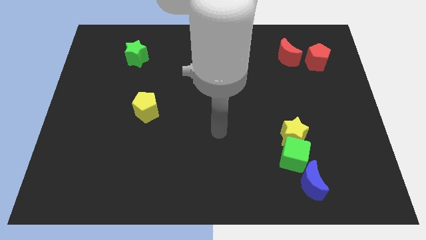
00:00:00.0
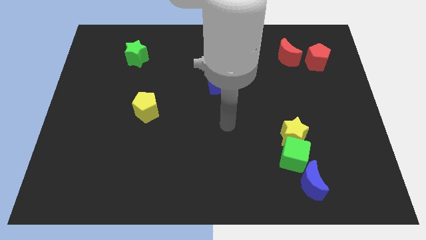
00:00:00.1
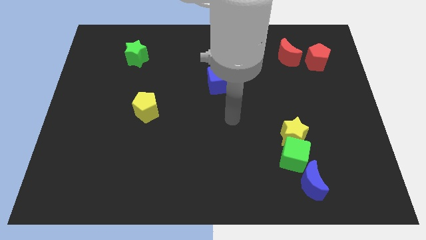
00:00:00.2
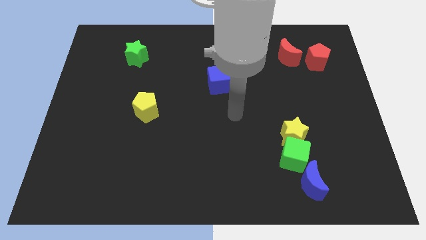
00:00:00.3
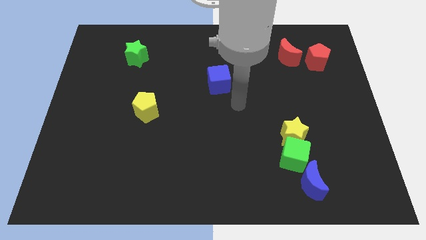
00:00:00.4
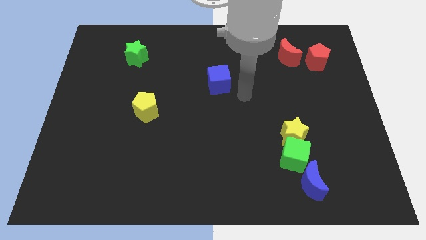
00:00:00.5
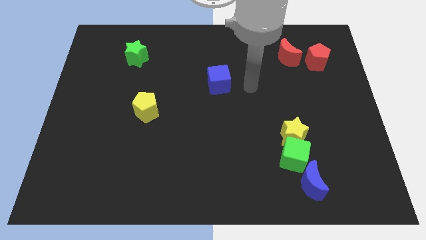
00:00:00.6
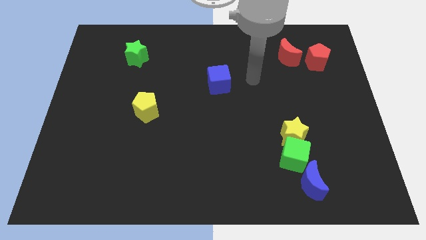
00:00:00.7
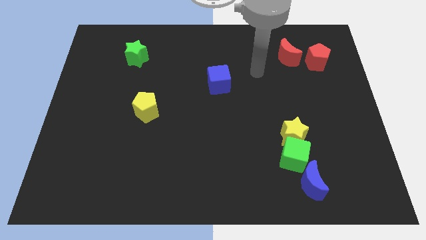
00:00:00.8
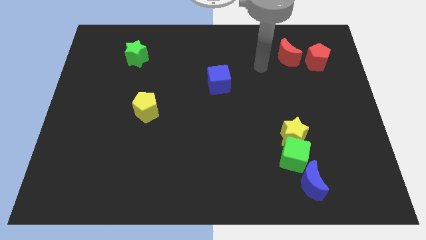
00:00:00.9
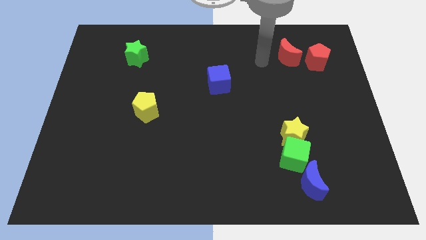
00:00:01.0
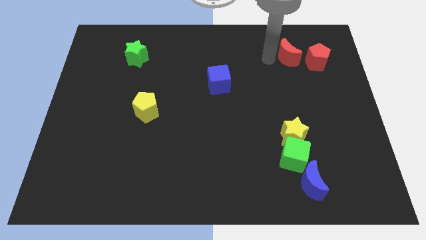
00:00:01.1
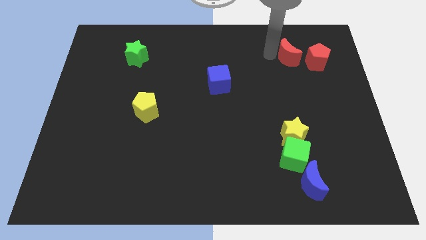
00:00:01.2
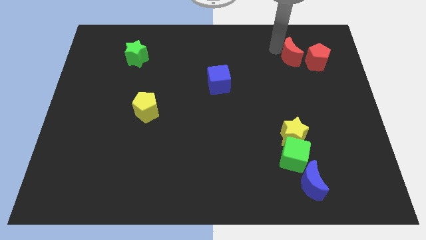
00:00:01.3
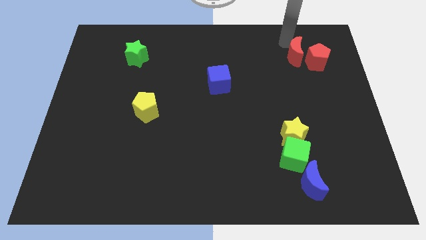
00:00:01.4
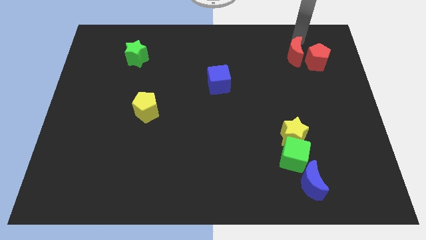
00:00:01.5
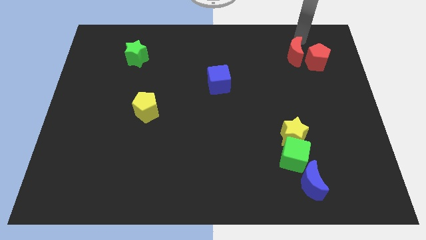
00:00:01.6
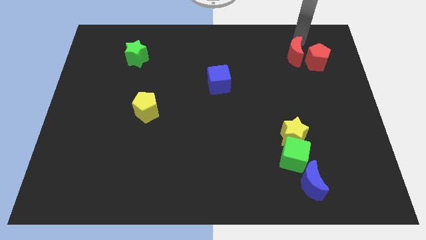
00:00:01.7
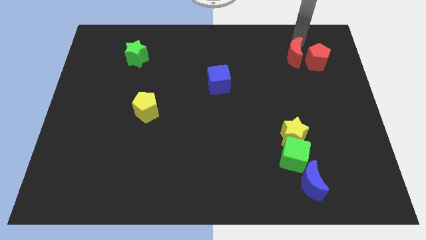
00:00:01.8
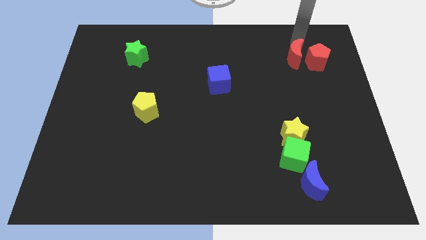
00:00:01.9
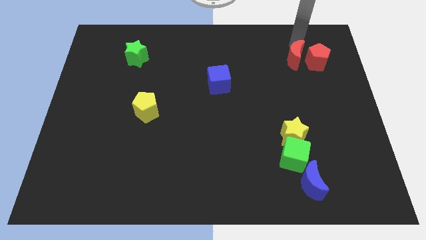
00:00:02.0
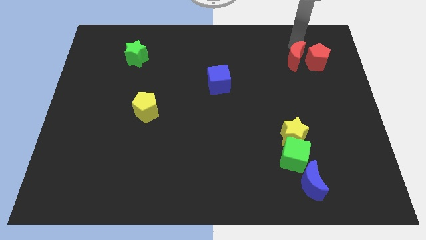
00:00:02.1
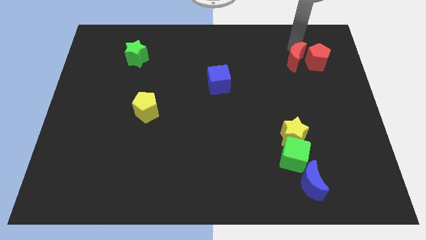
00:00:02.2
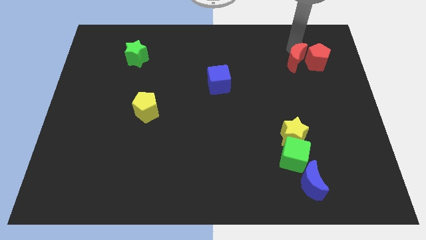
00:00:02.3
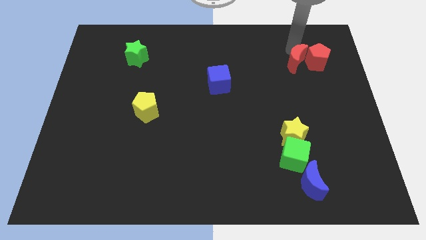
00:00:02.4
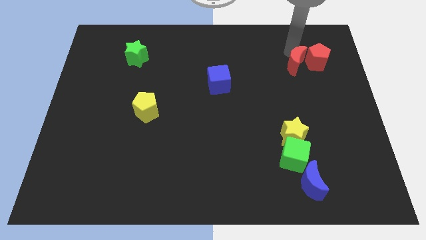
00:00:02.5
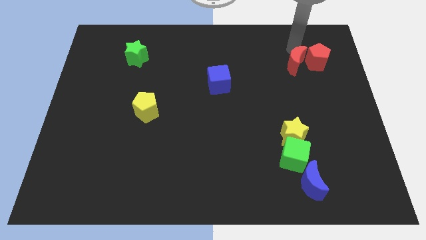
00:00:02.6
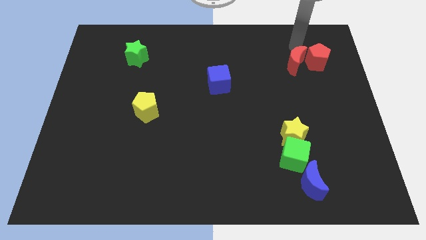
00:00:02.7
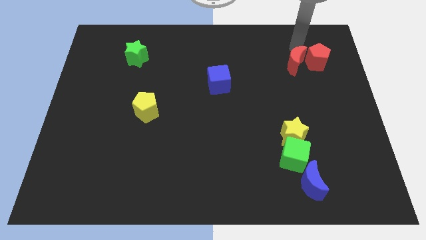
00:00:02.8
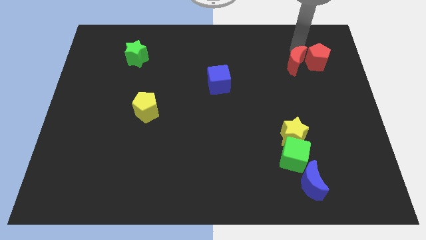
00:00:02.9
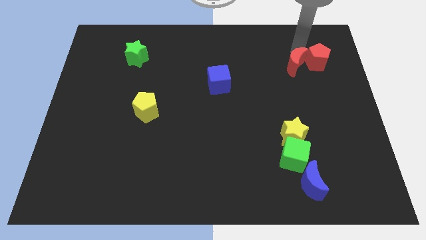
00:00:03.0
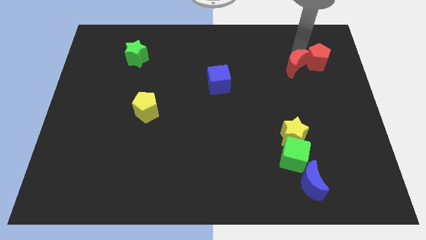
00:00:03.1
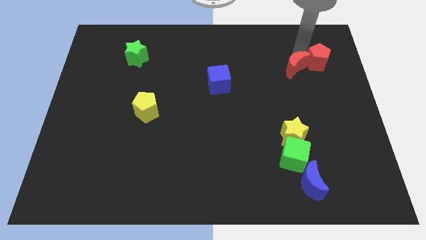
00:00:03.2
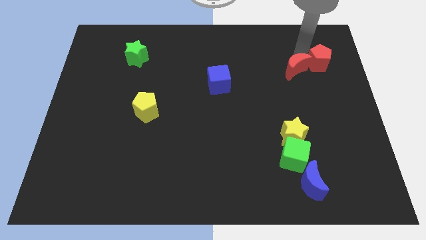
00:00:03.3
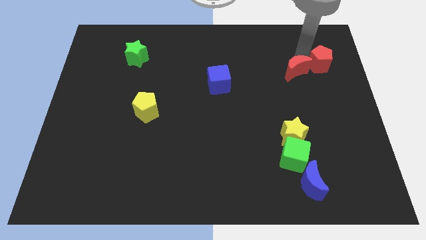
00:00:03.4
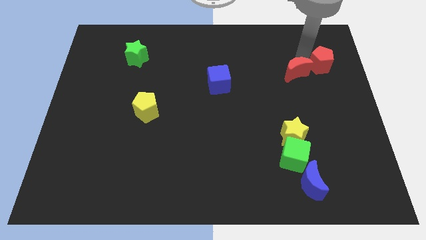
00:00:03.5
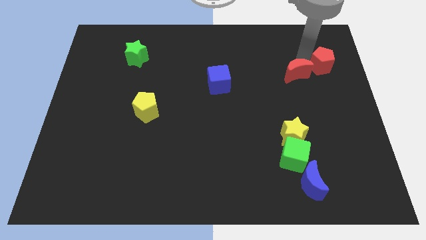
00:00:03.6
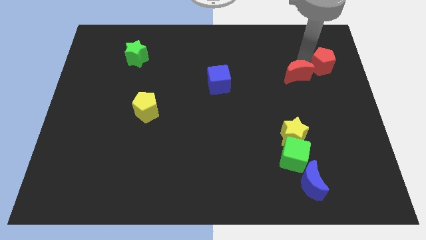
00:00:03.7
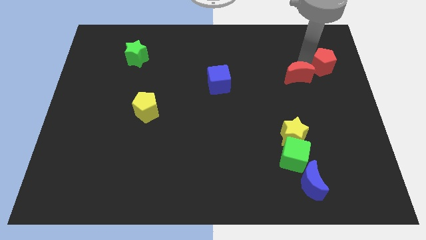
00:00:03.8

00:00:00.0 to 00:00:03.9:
move the red moon a bit down

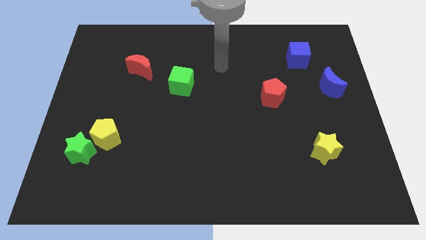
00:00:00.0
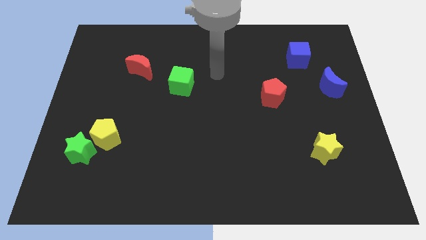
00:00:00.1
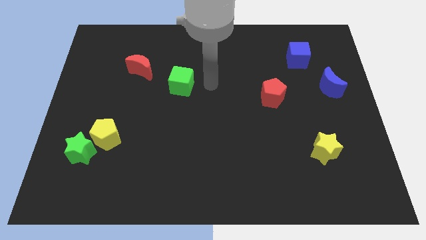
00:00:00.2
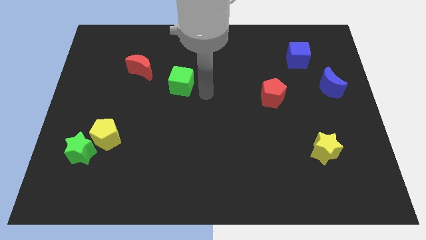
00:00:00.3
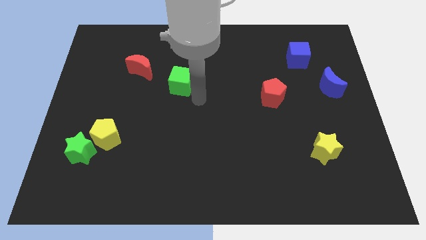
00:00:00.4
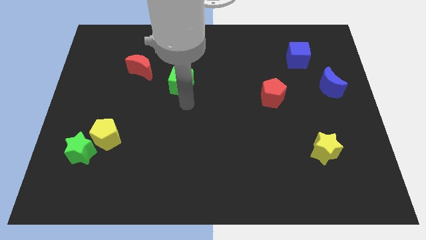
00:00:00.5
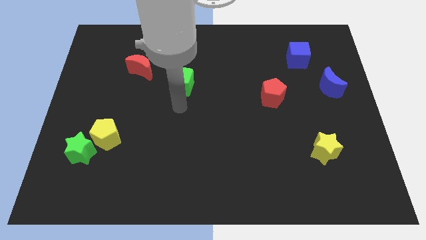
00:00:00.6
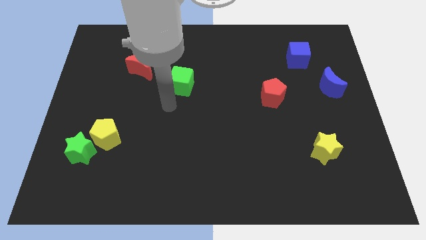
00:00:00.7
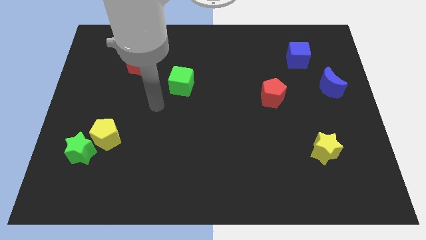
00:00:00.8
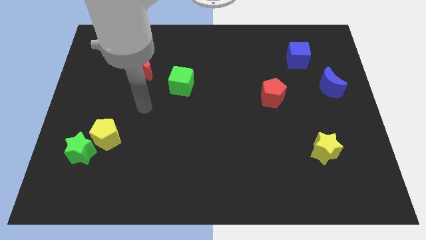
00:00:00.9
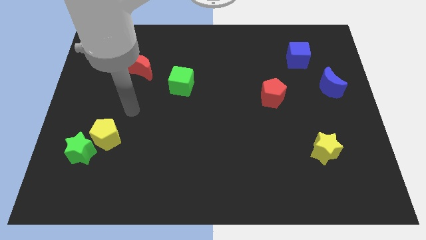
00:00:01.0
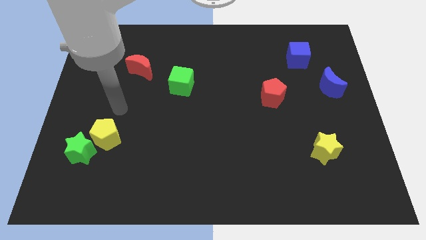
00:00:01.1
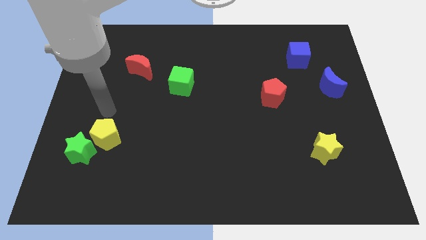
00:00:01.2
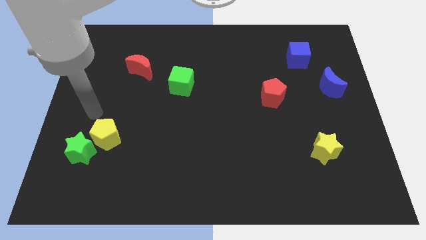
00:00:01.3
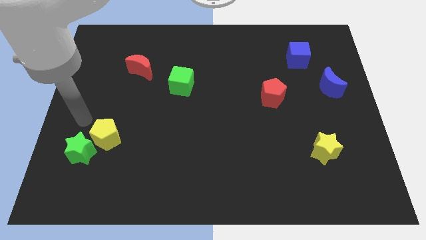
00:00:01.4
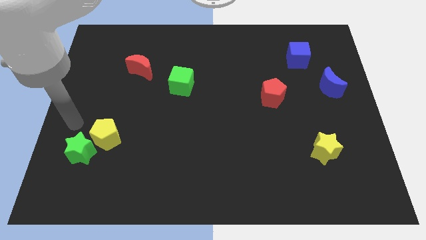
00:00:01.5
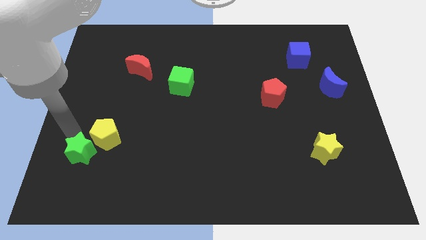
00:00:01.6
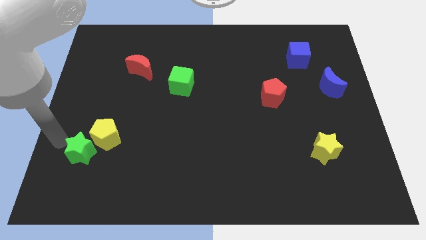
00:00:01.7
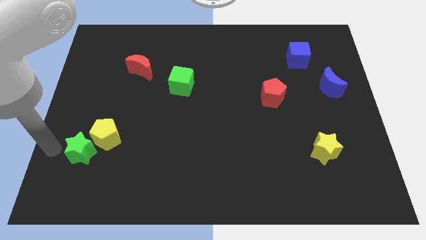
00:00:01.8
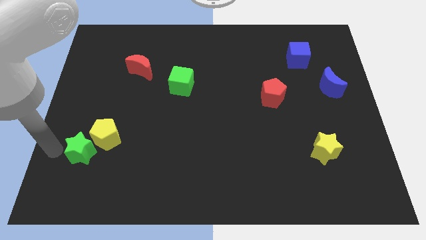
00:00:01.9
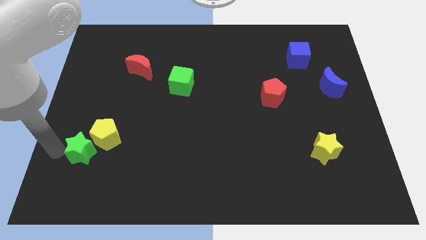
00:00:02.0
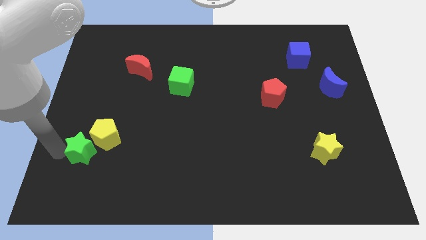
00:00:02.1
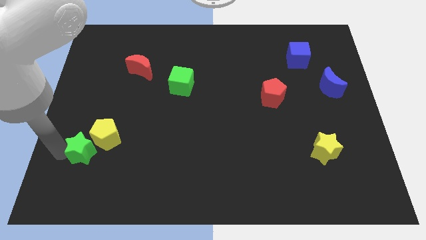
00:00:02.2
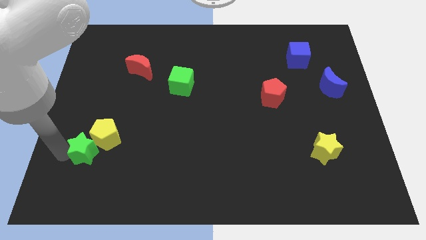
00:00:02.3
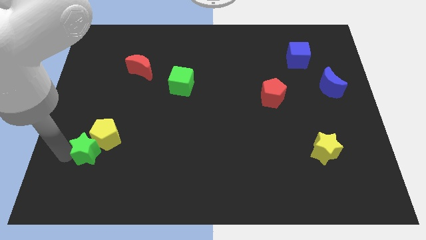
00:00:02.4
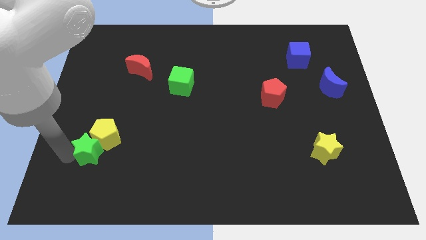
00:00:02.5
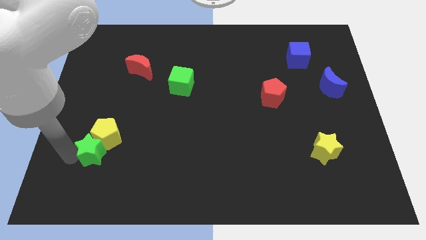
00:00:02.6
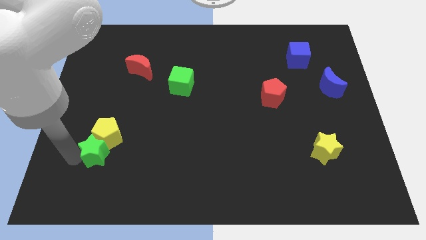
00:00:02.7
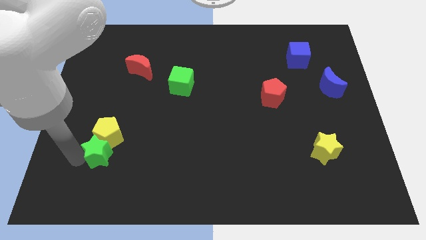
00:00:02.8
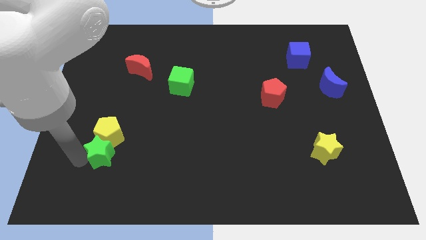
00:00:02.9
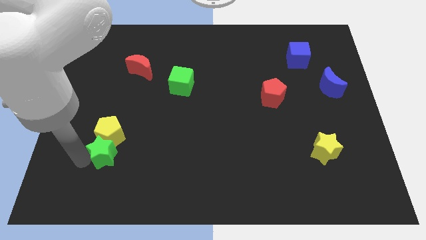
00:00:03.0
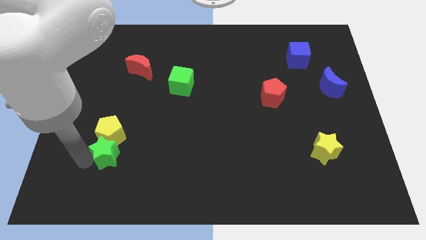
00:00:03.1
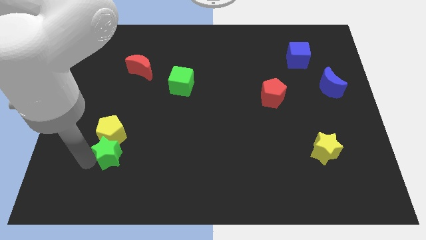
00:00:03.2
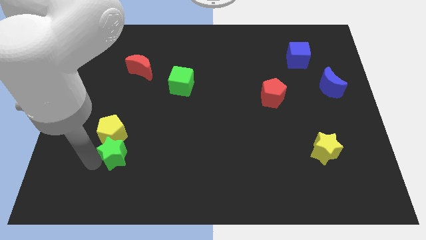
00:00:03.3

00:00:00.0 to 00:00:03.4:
move the green star to the right a little bit

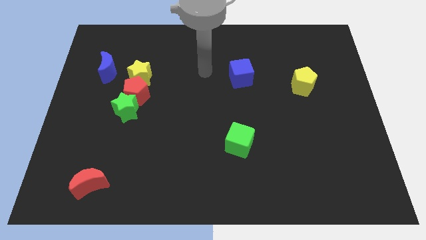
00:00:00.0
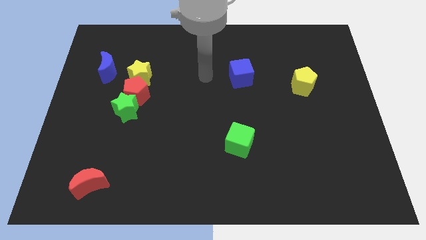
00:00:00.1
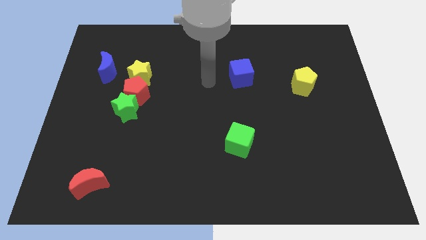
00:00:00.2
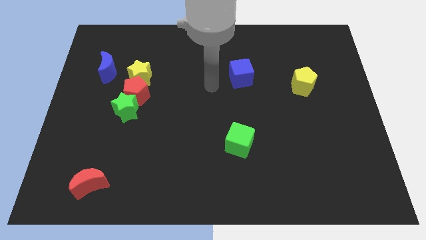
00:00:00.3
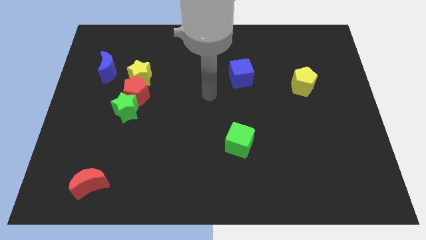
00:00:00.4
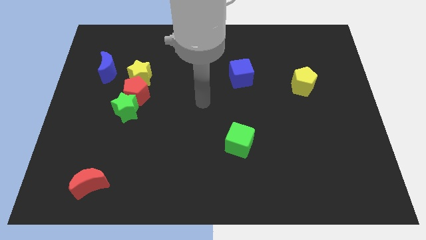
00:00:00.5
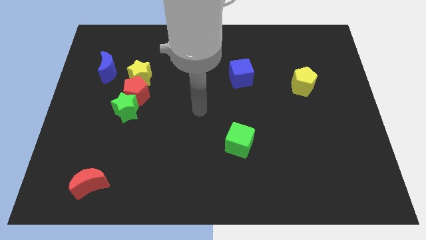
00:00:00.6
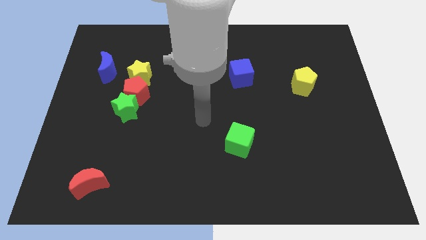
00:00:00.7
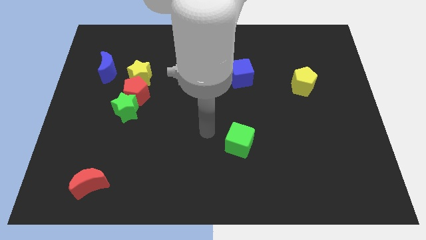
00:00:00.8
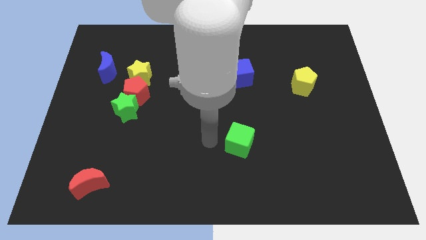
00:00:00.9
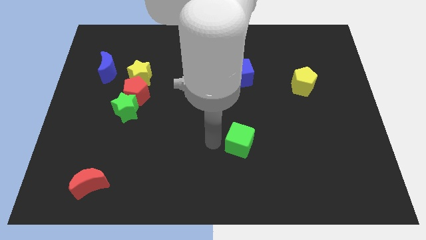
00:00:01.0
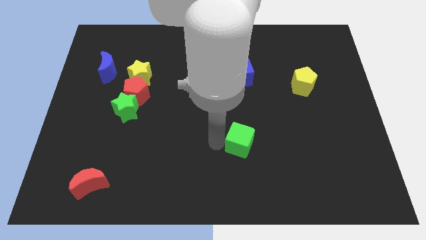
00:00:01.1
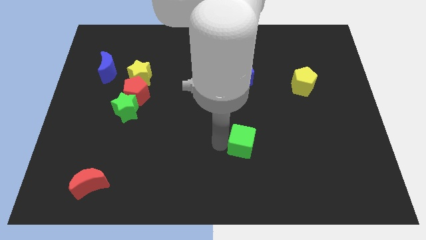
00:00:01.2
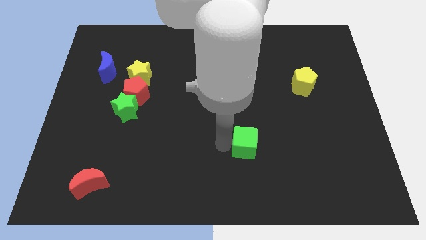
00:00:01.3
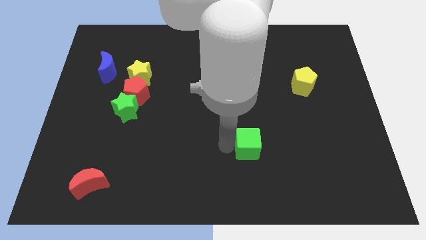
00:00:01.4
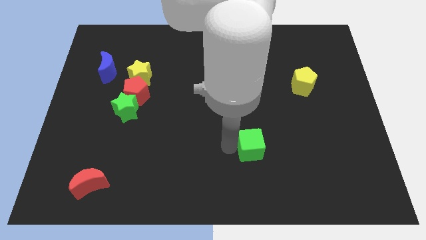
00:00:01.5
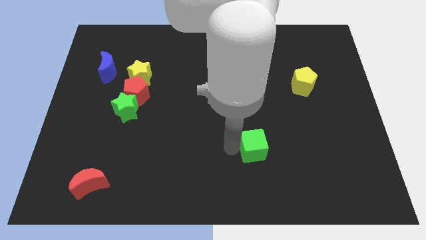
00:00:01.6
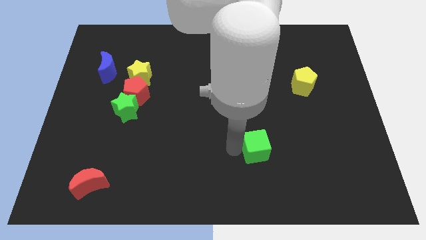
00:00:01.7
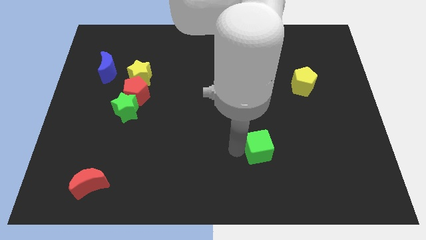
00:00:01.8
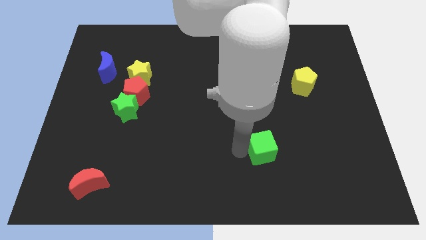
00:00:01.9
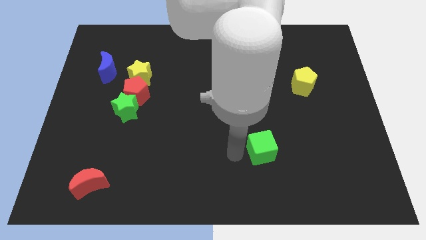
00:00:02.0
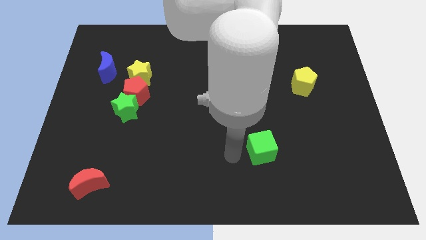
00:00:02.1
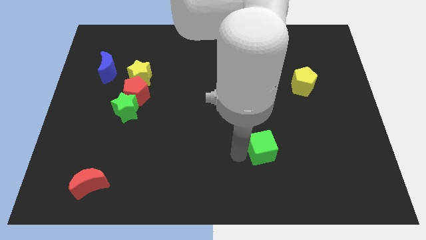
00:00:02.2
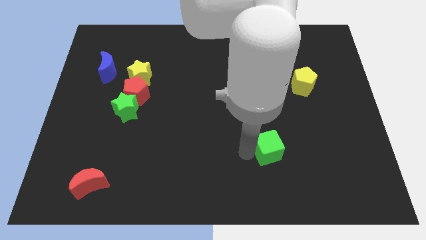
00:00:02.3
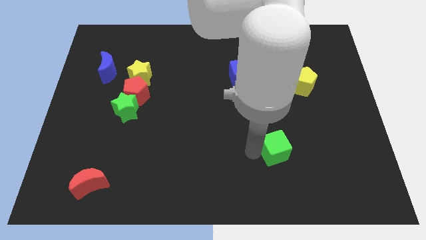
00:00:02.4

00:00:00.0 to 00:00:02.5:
push the green cube right a bit
